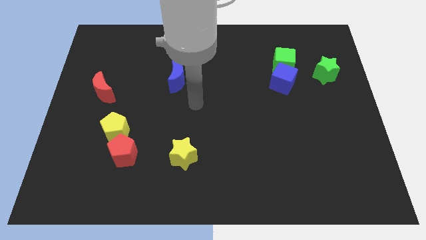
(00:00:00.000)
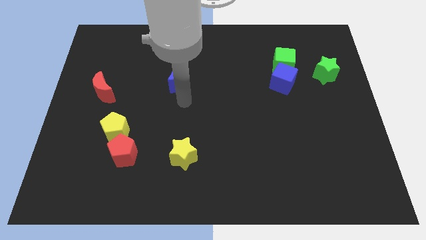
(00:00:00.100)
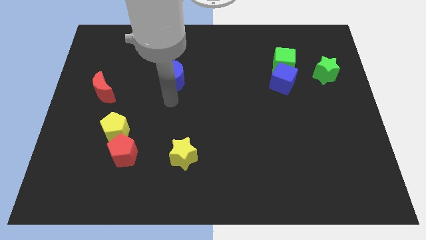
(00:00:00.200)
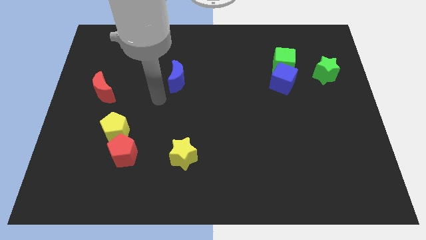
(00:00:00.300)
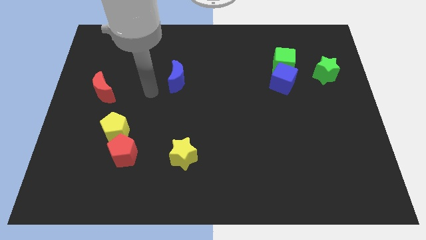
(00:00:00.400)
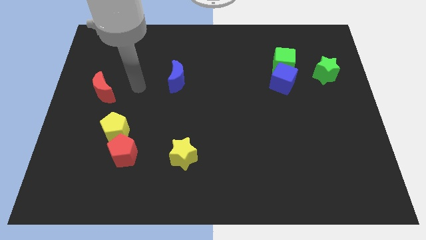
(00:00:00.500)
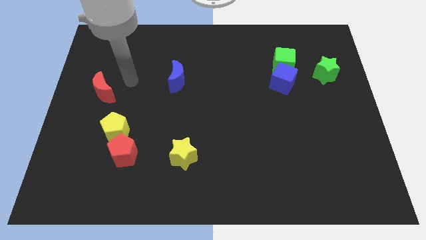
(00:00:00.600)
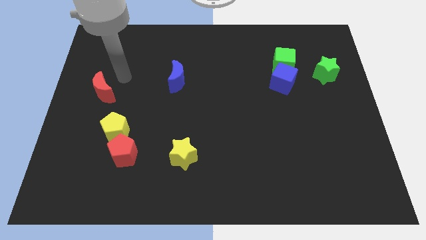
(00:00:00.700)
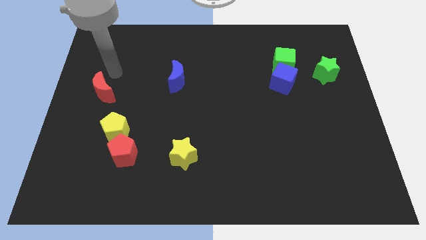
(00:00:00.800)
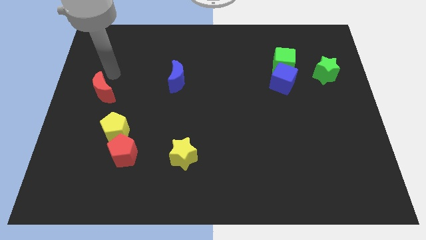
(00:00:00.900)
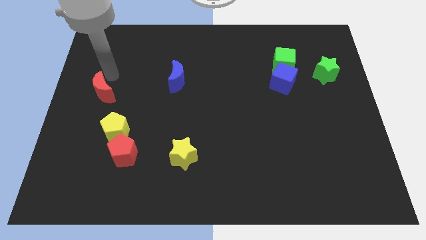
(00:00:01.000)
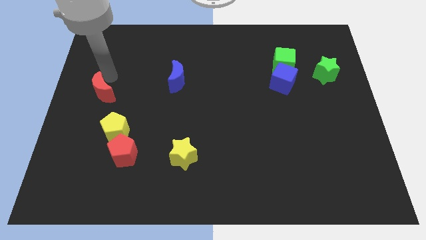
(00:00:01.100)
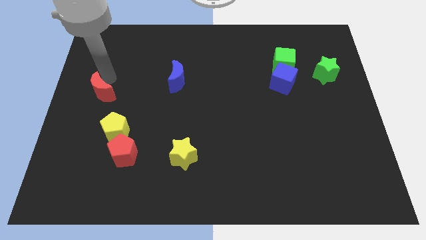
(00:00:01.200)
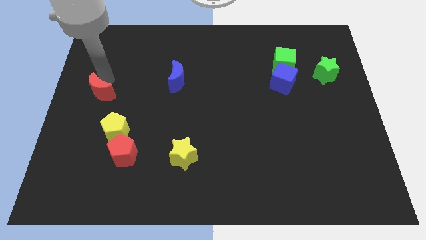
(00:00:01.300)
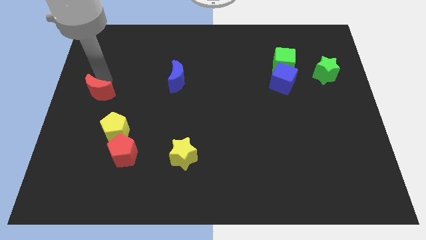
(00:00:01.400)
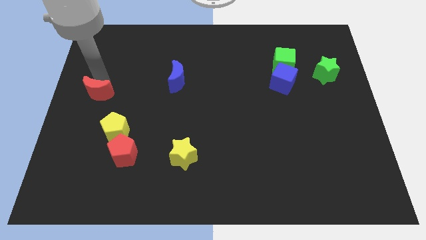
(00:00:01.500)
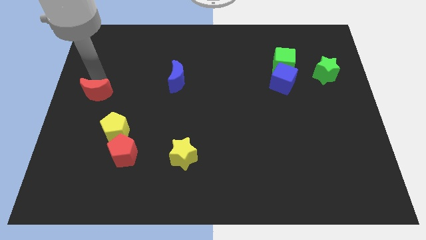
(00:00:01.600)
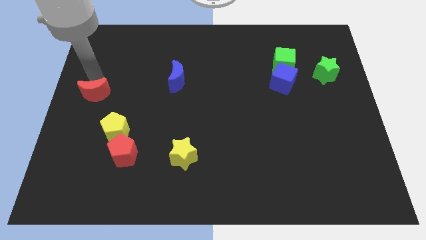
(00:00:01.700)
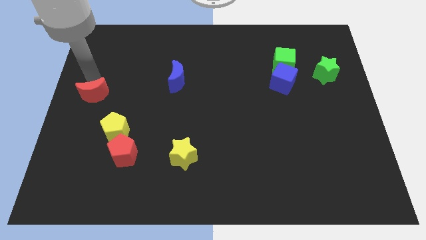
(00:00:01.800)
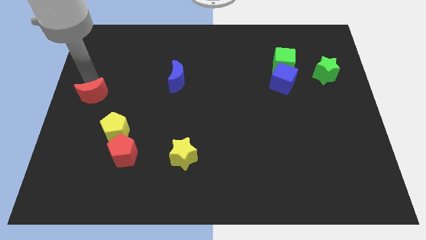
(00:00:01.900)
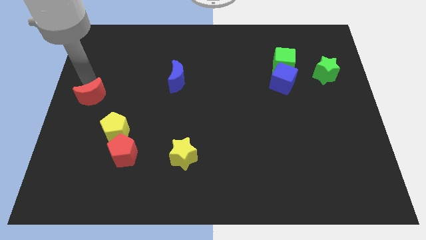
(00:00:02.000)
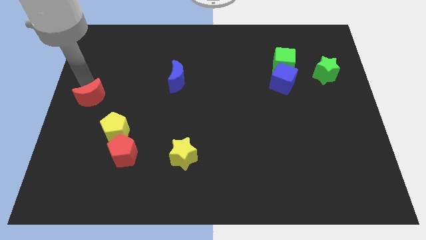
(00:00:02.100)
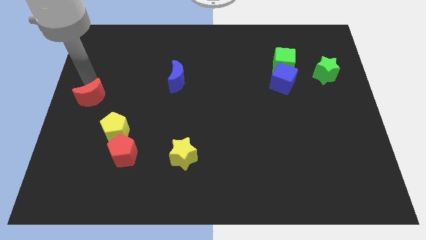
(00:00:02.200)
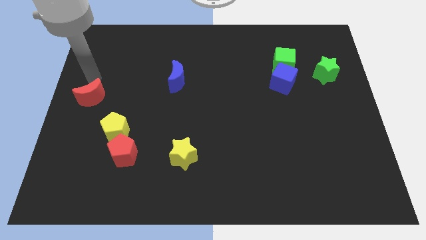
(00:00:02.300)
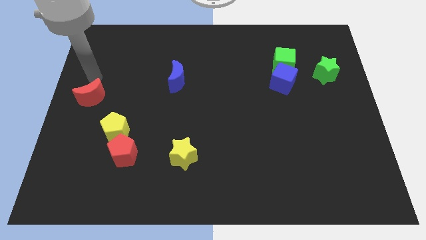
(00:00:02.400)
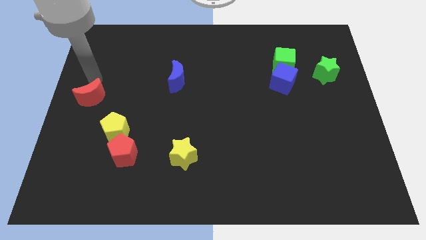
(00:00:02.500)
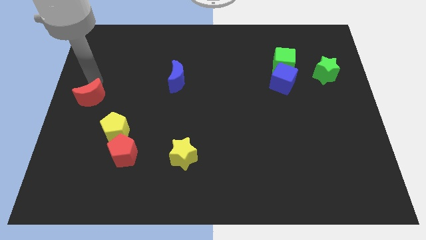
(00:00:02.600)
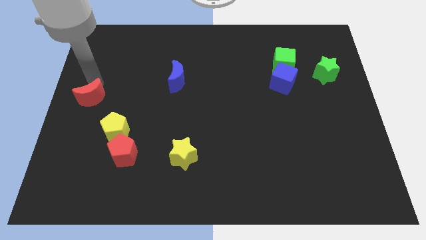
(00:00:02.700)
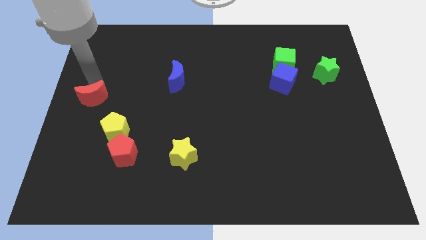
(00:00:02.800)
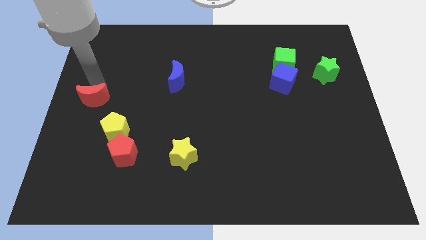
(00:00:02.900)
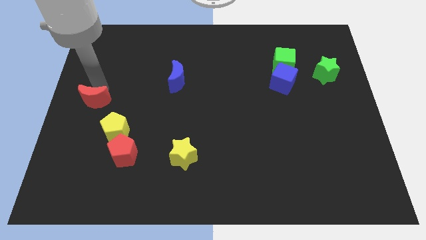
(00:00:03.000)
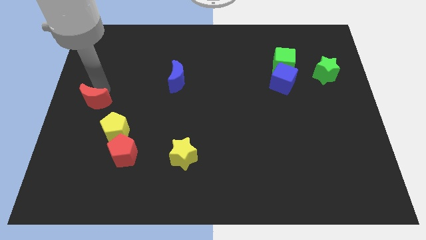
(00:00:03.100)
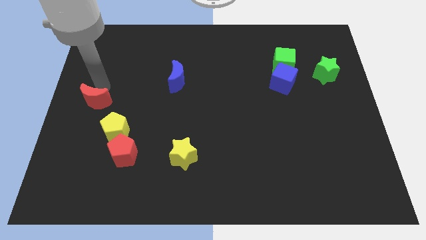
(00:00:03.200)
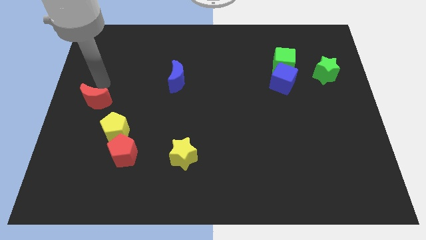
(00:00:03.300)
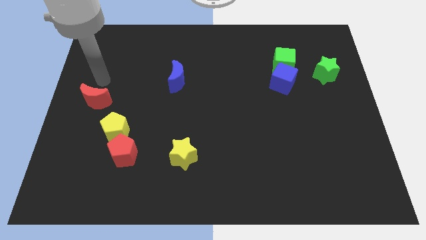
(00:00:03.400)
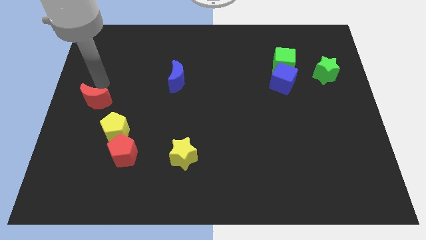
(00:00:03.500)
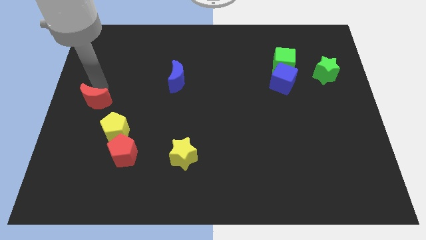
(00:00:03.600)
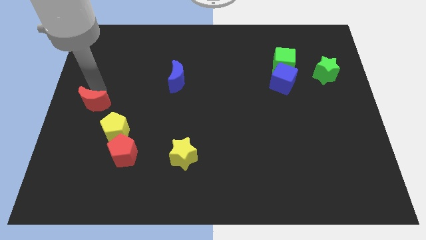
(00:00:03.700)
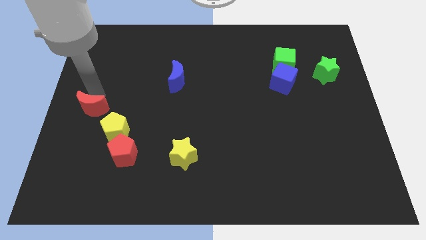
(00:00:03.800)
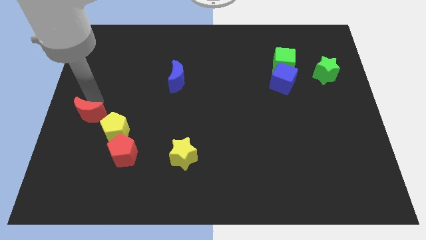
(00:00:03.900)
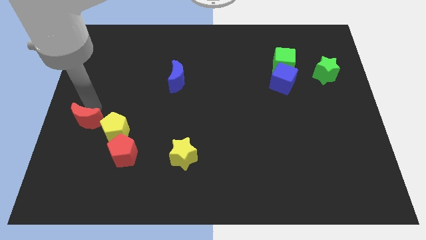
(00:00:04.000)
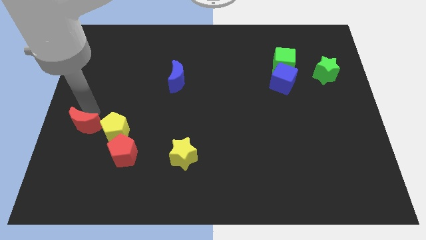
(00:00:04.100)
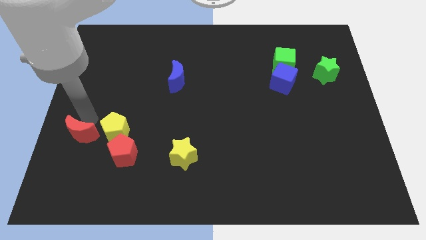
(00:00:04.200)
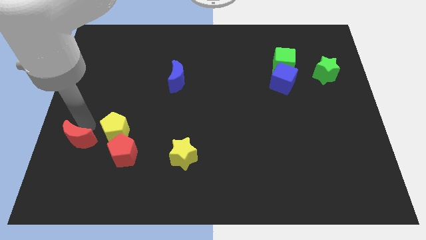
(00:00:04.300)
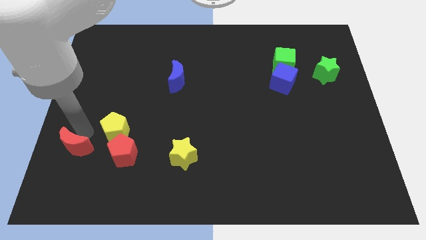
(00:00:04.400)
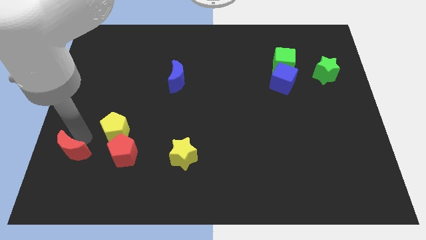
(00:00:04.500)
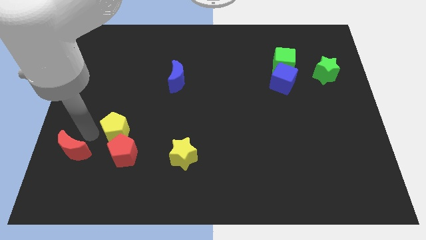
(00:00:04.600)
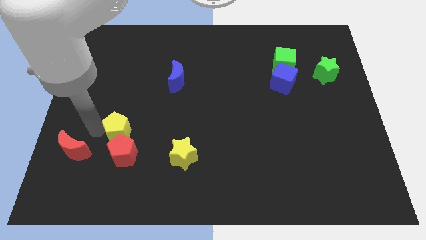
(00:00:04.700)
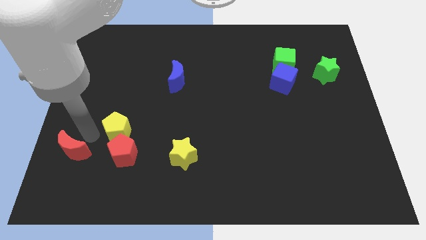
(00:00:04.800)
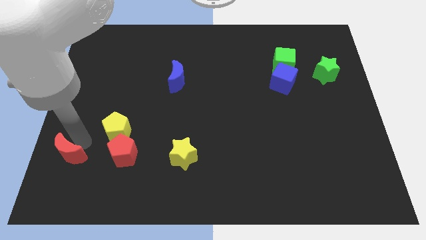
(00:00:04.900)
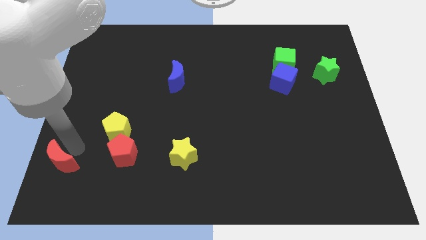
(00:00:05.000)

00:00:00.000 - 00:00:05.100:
move the red moon to the bottom left

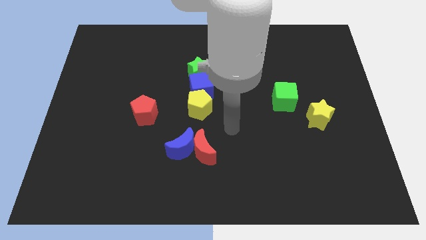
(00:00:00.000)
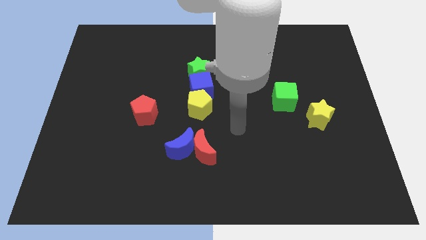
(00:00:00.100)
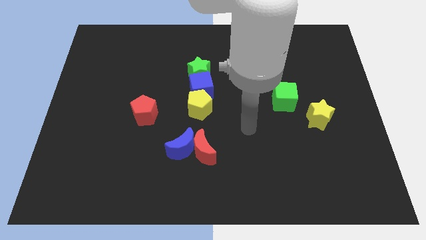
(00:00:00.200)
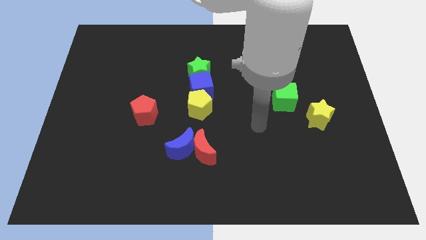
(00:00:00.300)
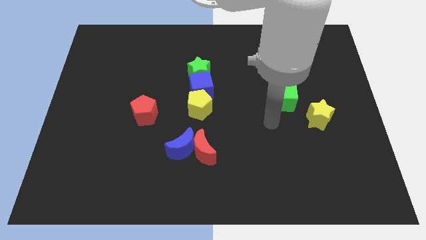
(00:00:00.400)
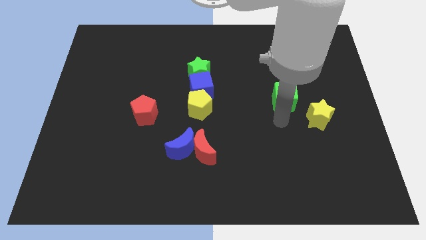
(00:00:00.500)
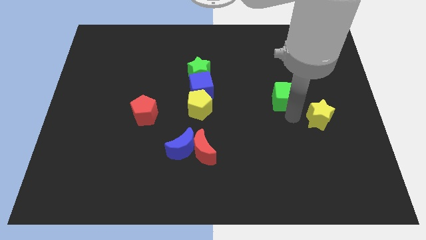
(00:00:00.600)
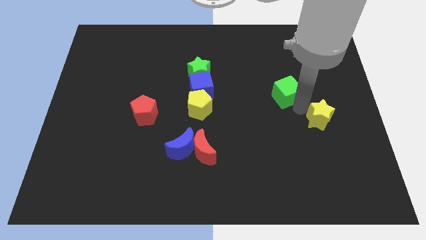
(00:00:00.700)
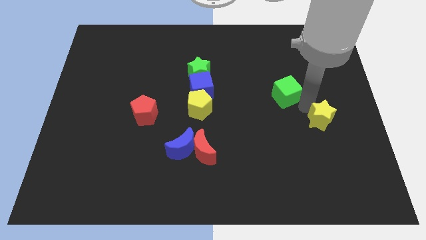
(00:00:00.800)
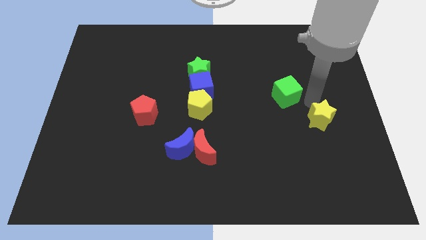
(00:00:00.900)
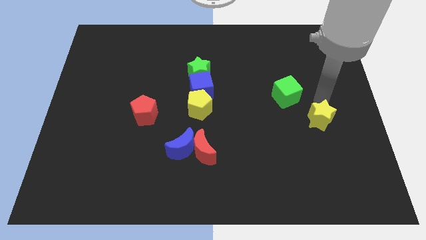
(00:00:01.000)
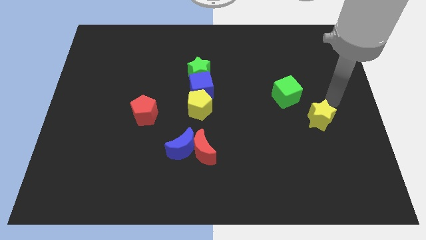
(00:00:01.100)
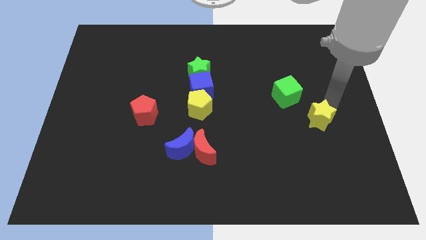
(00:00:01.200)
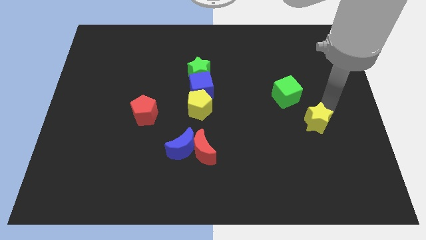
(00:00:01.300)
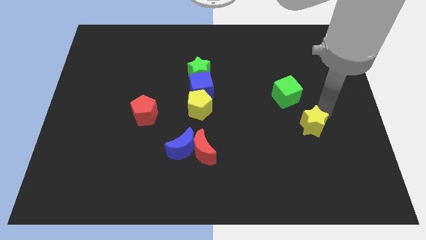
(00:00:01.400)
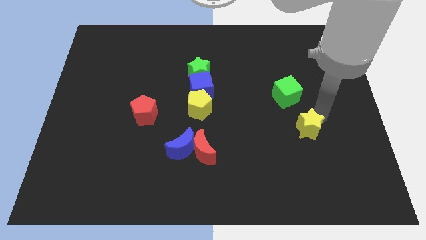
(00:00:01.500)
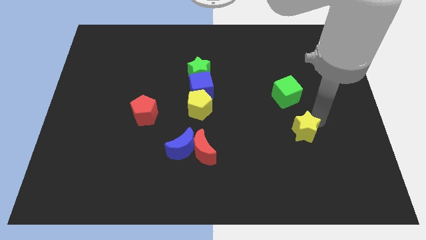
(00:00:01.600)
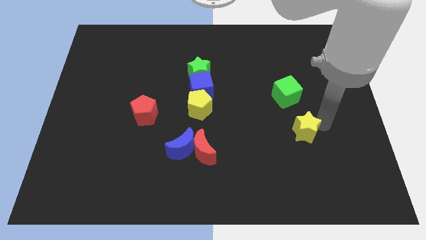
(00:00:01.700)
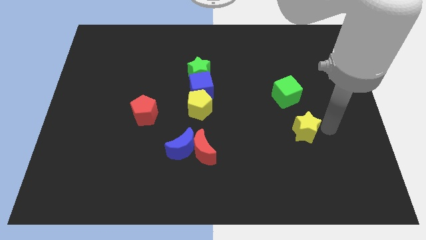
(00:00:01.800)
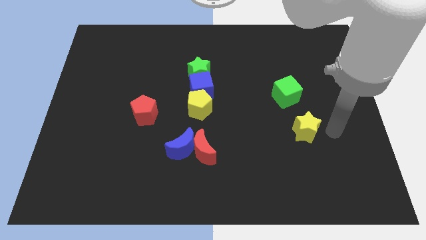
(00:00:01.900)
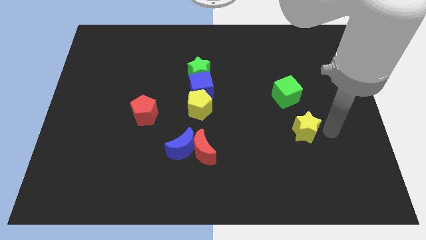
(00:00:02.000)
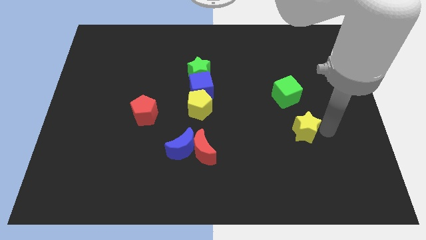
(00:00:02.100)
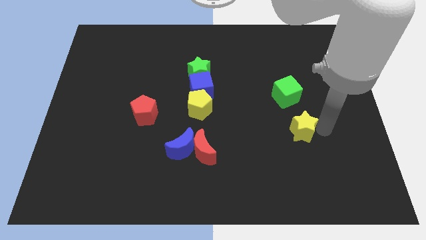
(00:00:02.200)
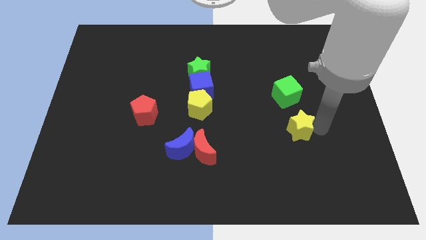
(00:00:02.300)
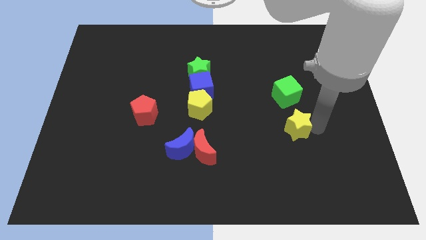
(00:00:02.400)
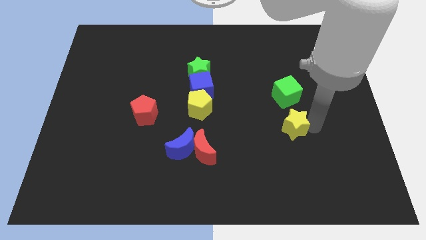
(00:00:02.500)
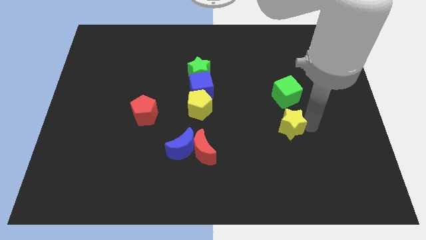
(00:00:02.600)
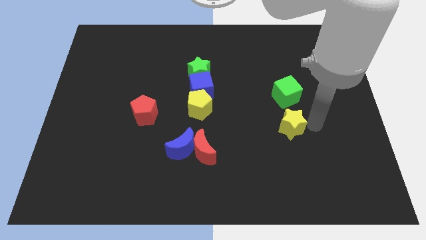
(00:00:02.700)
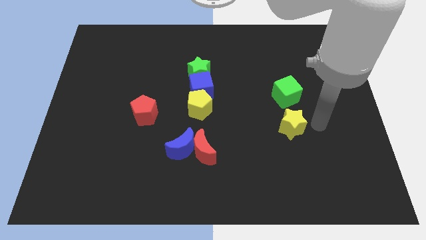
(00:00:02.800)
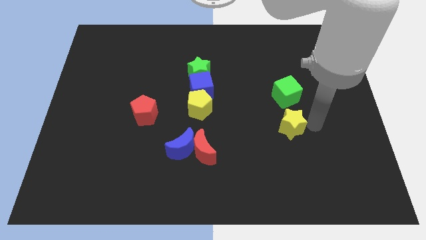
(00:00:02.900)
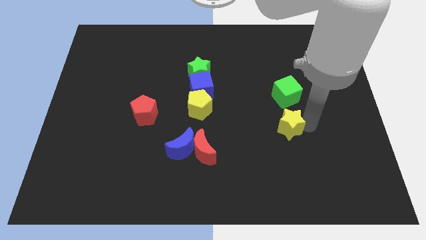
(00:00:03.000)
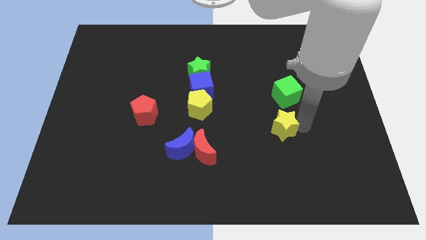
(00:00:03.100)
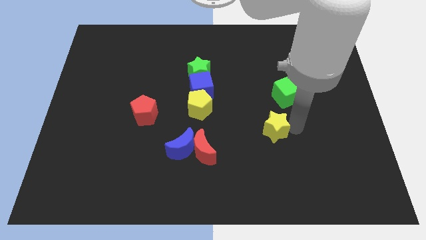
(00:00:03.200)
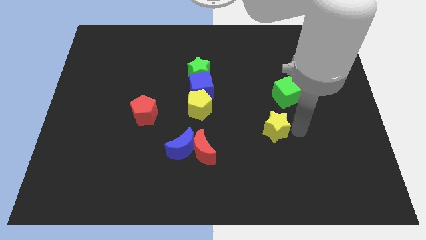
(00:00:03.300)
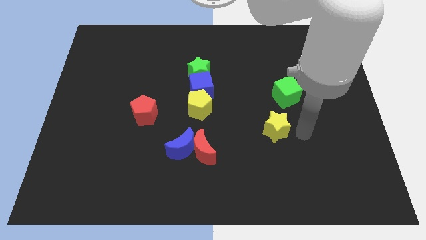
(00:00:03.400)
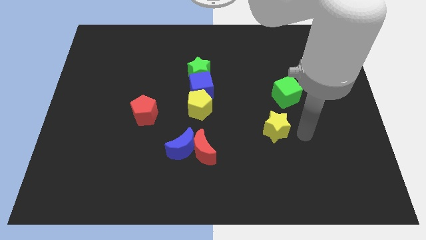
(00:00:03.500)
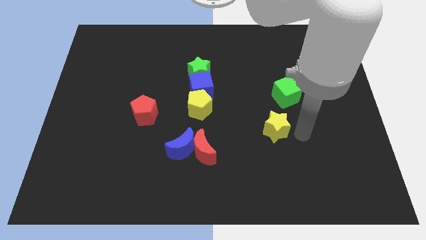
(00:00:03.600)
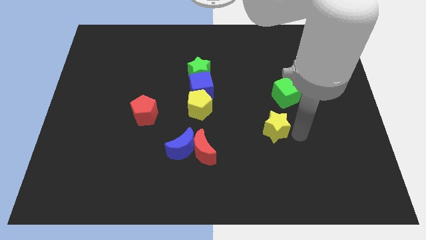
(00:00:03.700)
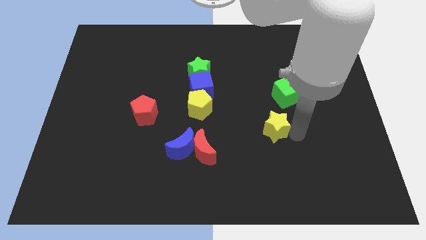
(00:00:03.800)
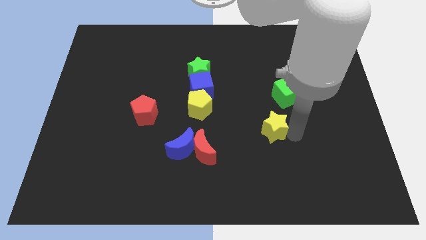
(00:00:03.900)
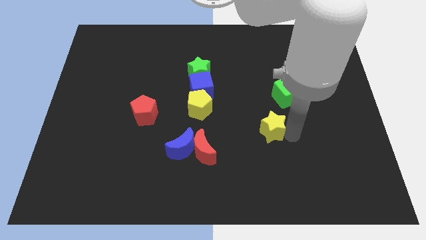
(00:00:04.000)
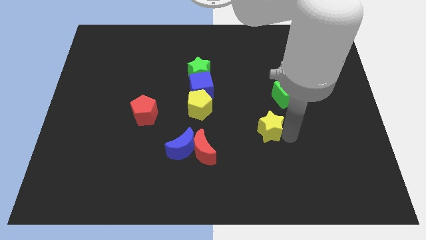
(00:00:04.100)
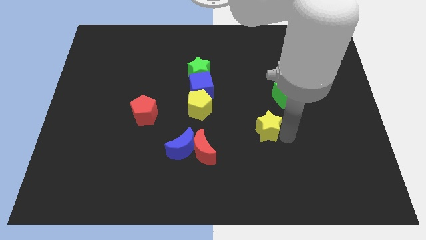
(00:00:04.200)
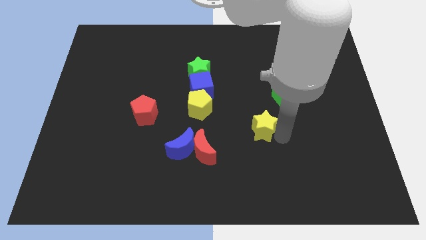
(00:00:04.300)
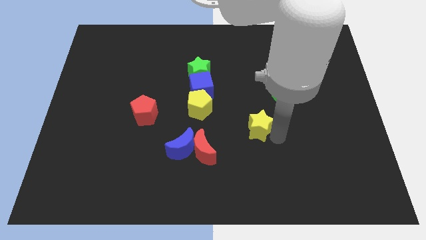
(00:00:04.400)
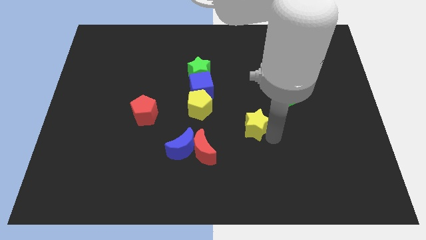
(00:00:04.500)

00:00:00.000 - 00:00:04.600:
slide the yellow star to the middle of the board
